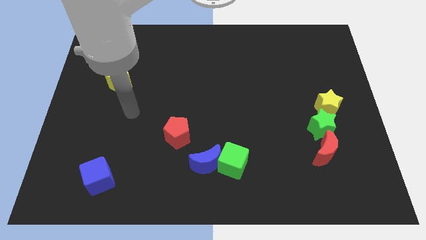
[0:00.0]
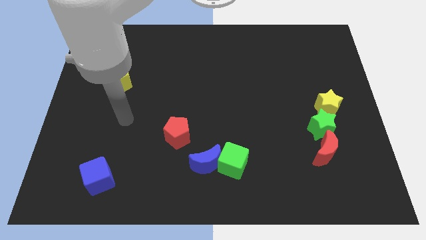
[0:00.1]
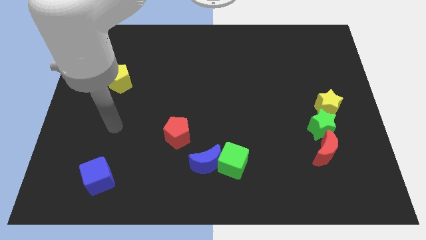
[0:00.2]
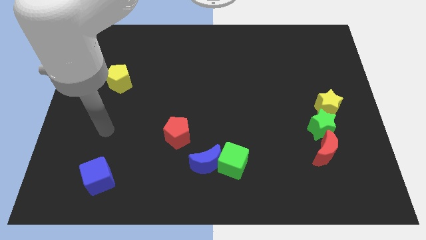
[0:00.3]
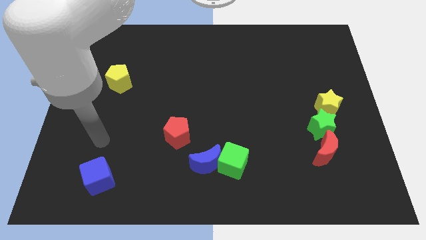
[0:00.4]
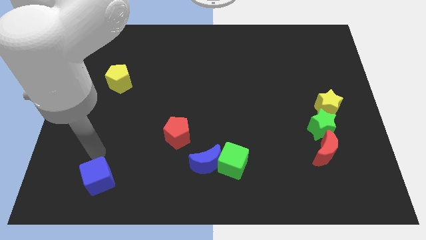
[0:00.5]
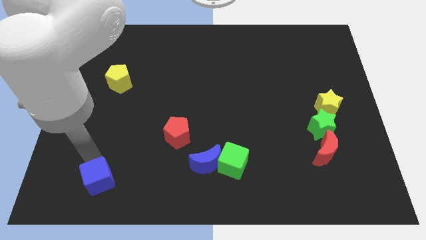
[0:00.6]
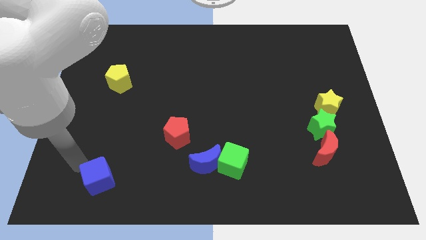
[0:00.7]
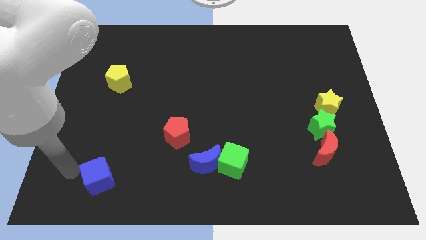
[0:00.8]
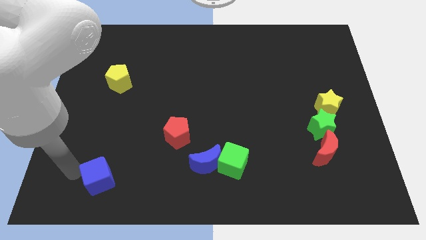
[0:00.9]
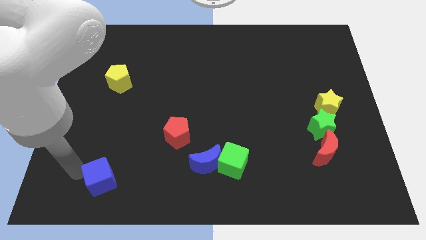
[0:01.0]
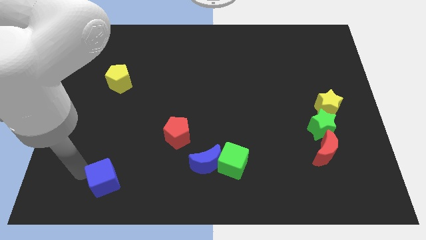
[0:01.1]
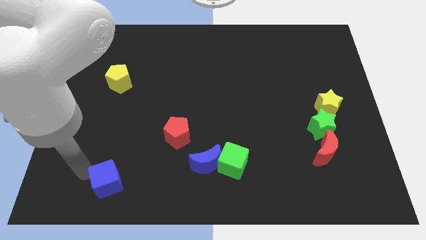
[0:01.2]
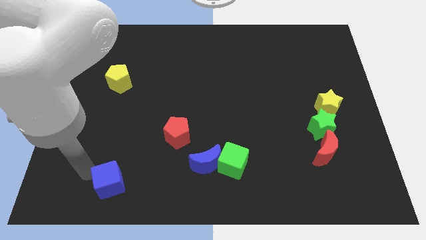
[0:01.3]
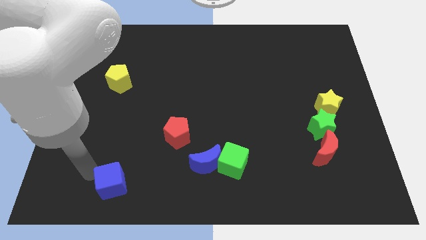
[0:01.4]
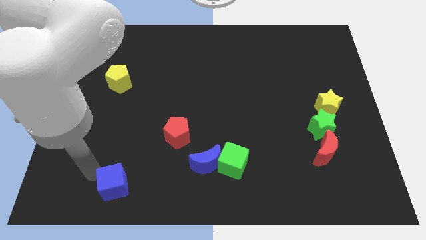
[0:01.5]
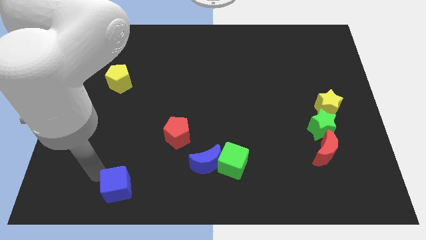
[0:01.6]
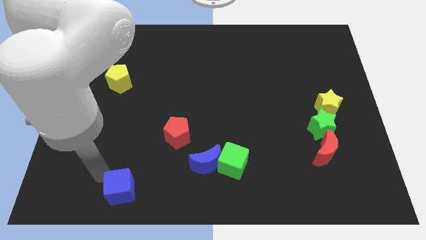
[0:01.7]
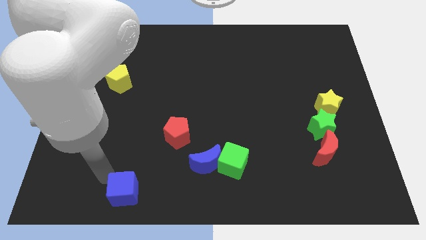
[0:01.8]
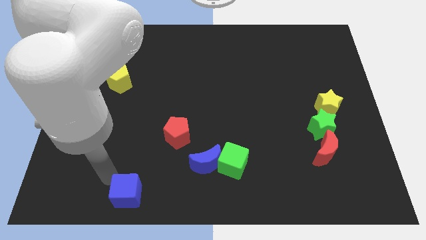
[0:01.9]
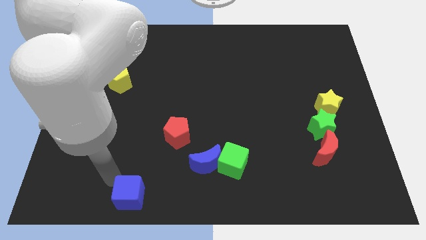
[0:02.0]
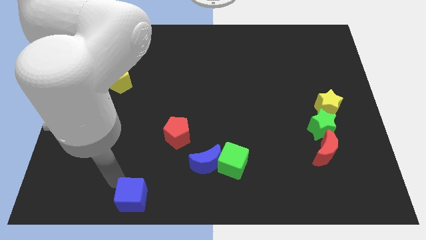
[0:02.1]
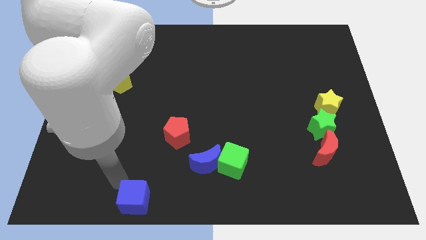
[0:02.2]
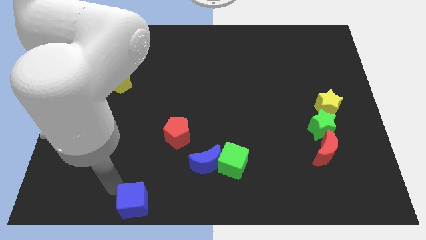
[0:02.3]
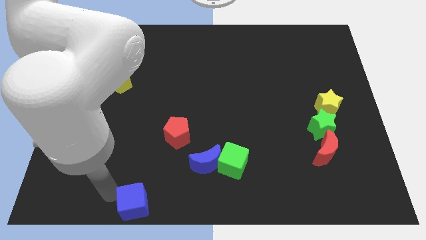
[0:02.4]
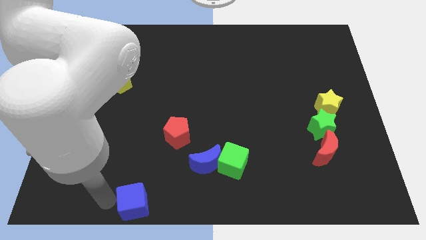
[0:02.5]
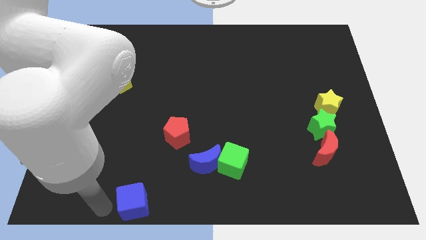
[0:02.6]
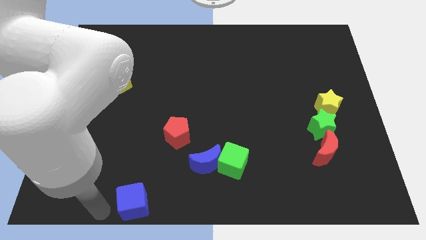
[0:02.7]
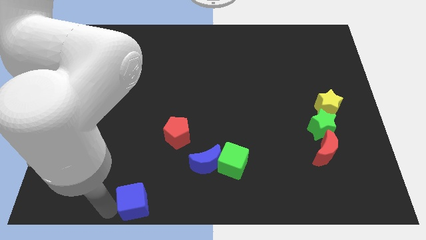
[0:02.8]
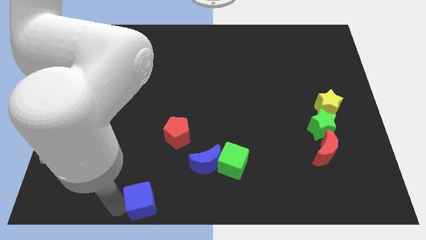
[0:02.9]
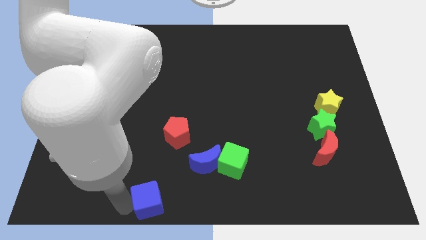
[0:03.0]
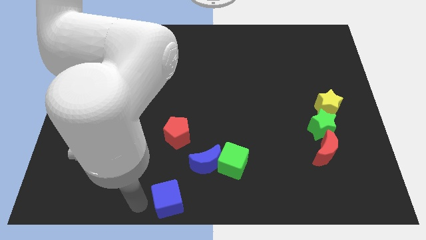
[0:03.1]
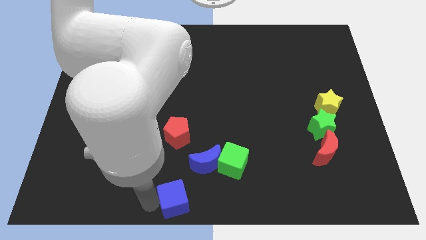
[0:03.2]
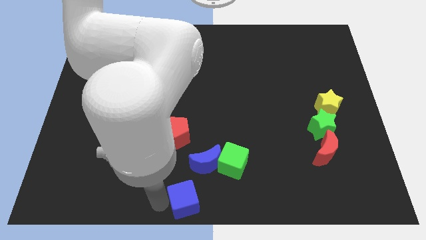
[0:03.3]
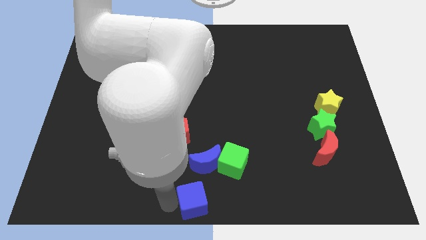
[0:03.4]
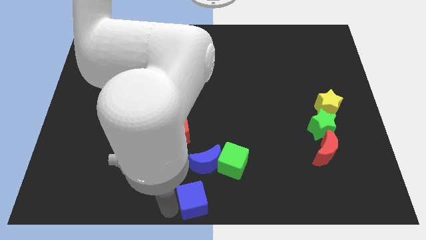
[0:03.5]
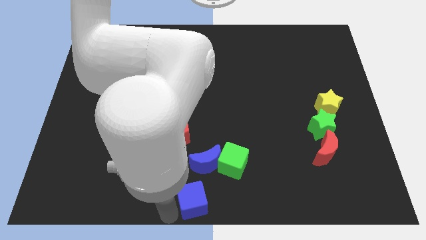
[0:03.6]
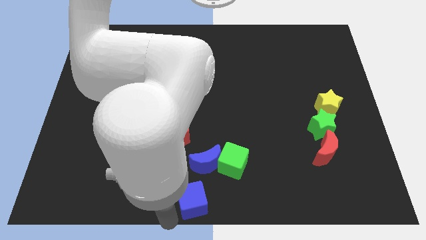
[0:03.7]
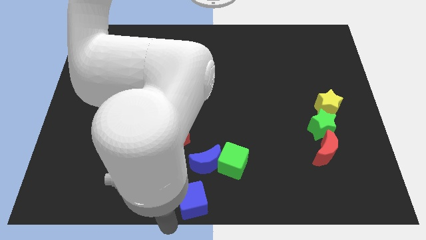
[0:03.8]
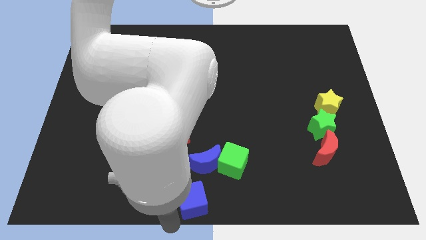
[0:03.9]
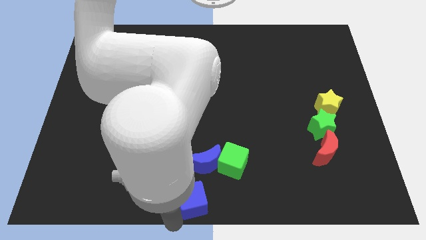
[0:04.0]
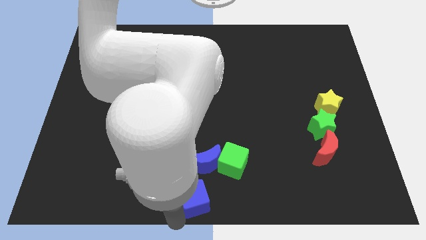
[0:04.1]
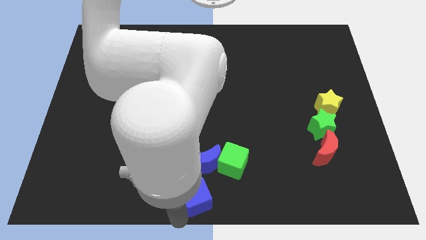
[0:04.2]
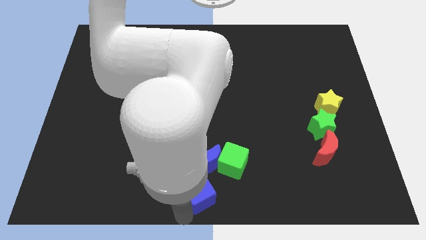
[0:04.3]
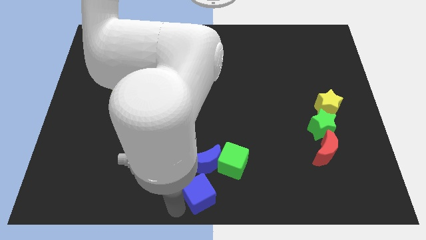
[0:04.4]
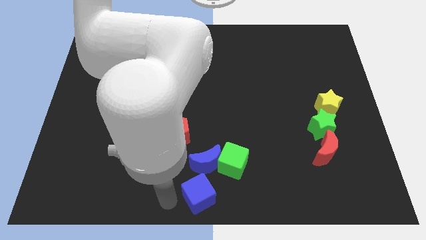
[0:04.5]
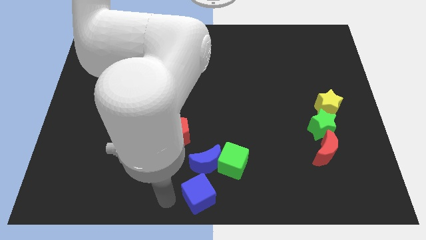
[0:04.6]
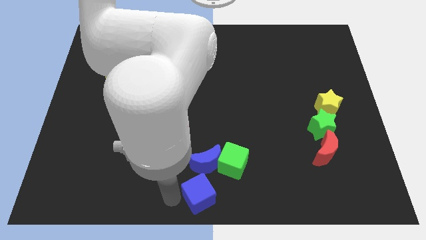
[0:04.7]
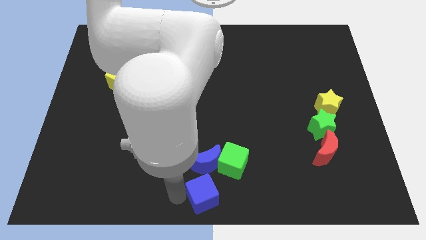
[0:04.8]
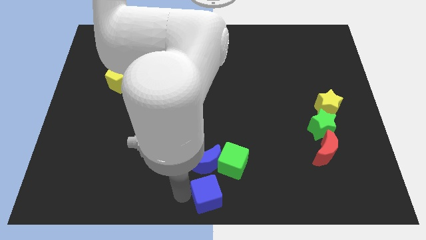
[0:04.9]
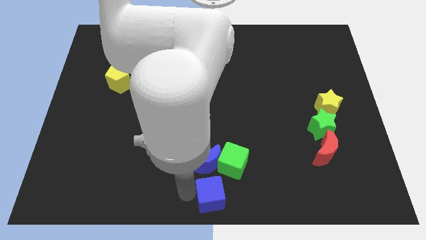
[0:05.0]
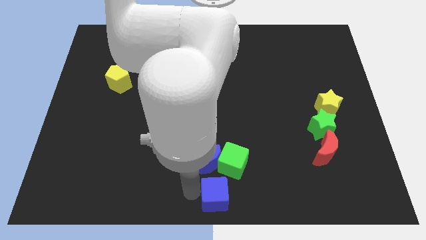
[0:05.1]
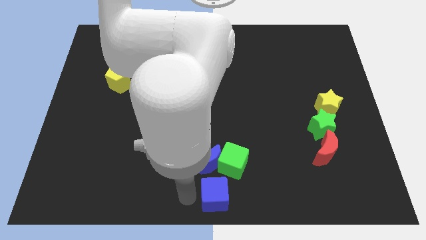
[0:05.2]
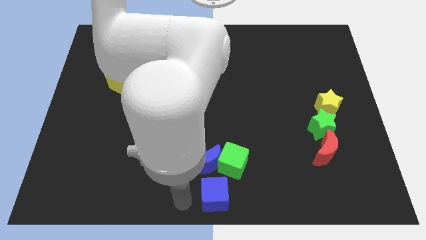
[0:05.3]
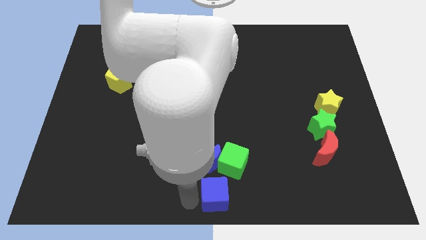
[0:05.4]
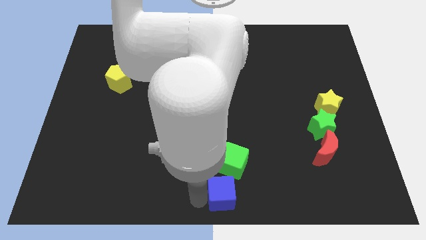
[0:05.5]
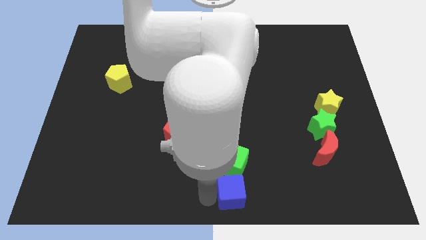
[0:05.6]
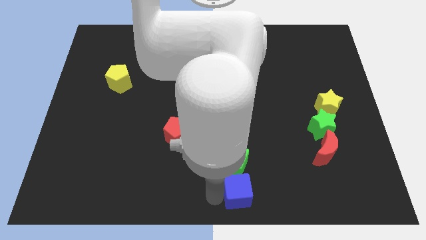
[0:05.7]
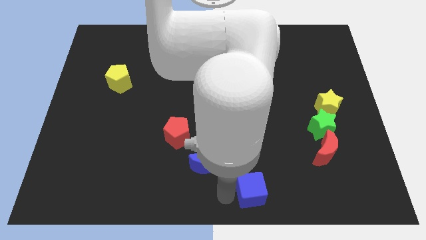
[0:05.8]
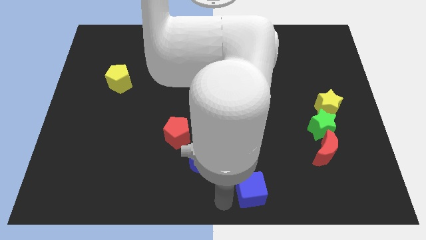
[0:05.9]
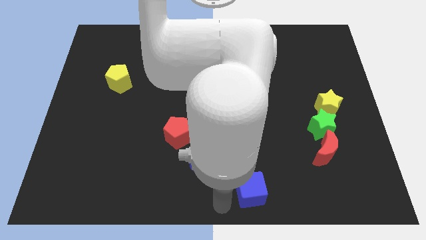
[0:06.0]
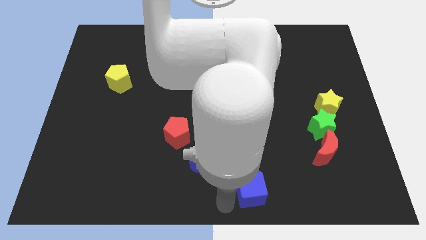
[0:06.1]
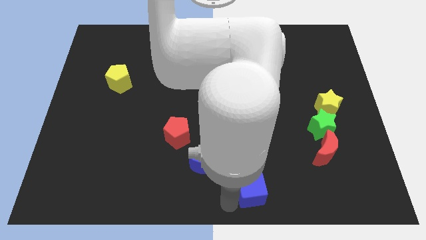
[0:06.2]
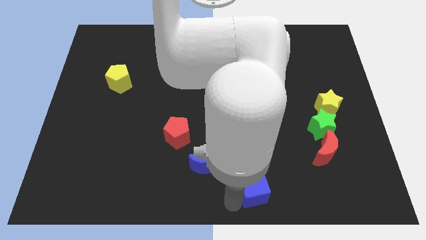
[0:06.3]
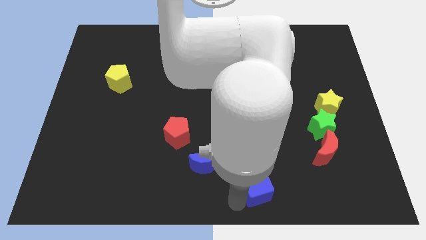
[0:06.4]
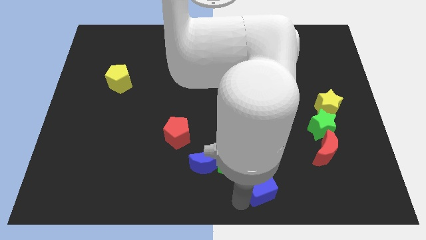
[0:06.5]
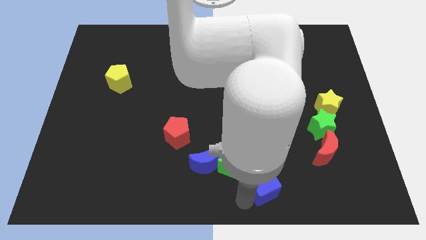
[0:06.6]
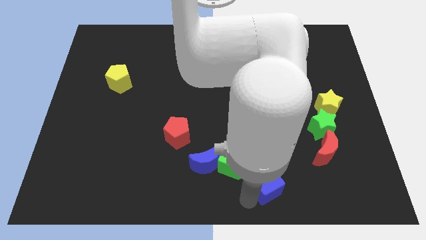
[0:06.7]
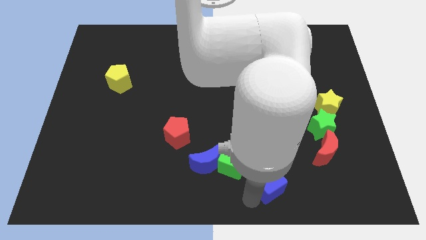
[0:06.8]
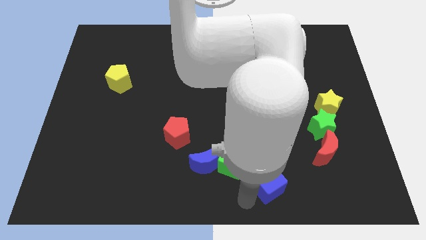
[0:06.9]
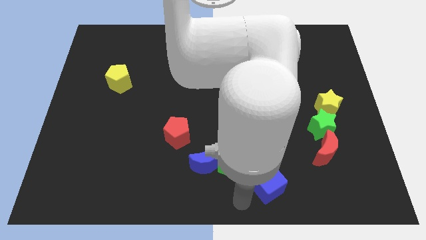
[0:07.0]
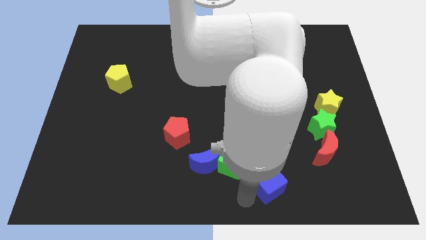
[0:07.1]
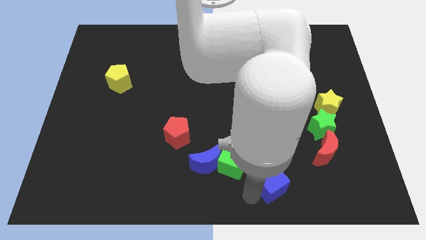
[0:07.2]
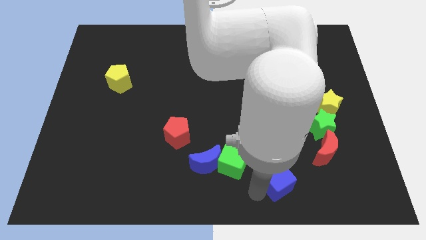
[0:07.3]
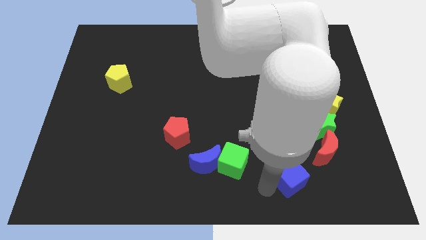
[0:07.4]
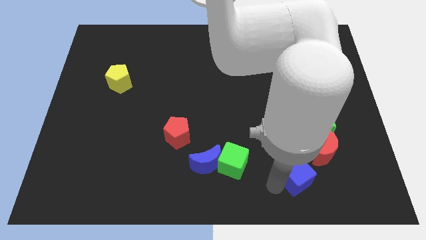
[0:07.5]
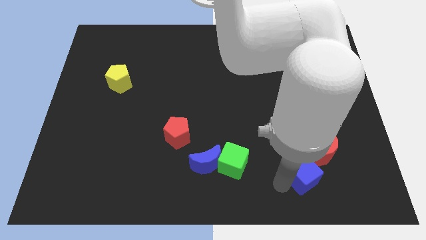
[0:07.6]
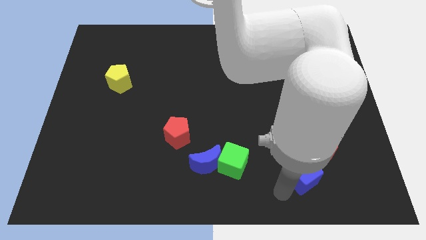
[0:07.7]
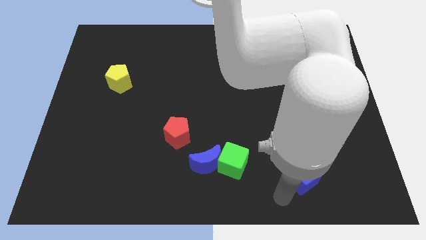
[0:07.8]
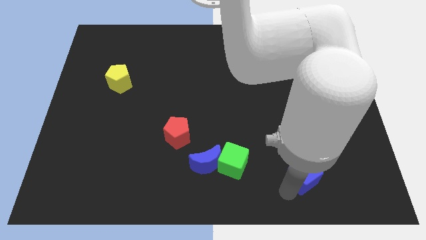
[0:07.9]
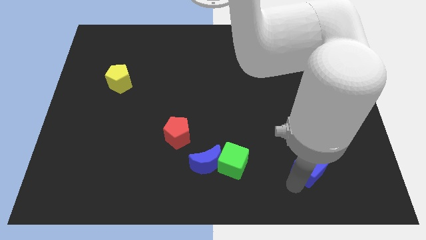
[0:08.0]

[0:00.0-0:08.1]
move the blue cube towards the red moon

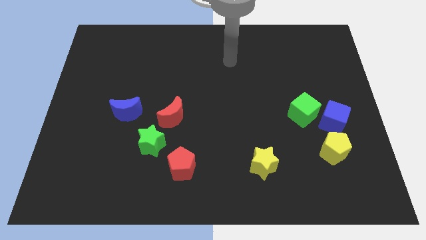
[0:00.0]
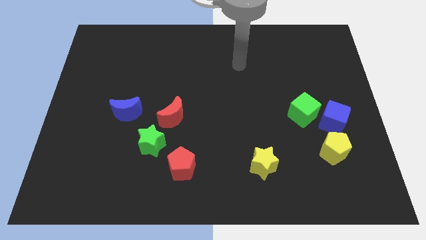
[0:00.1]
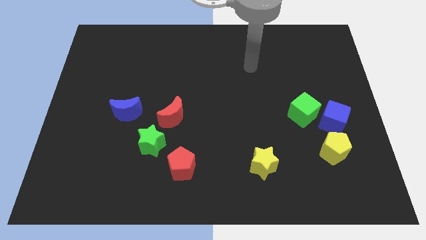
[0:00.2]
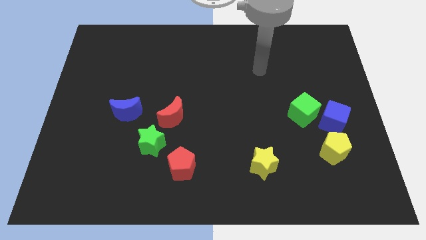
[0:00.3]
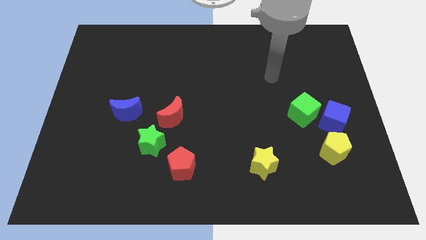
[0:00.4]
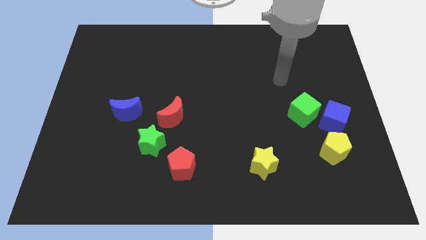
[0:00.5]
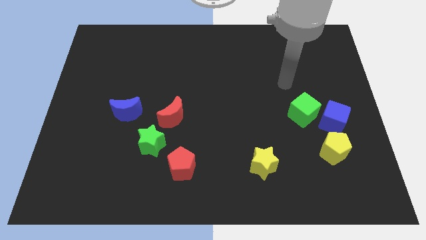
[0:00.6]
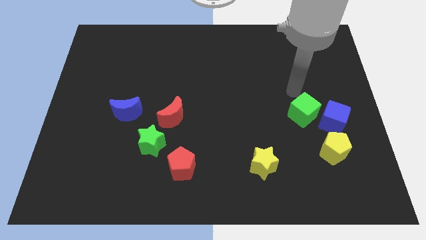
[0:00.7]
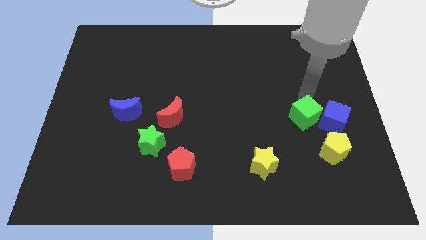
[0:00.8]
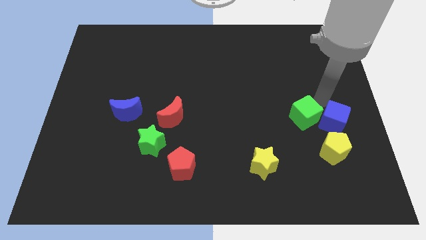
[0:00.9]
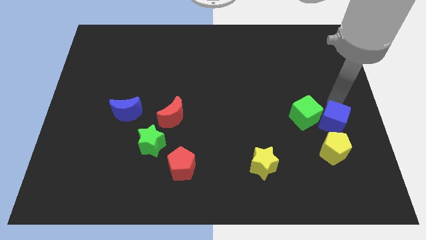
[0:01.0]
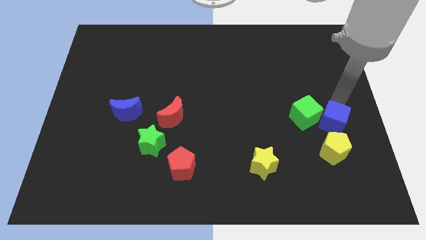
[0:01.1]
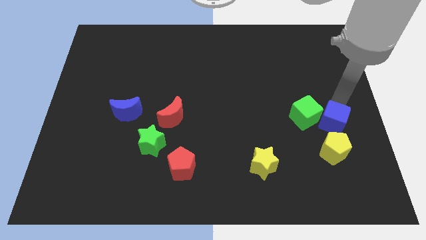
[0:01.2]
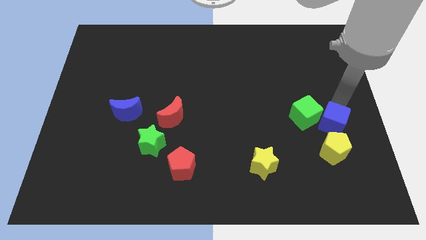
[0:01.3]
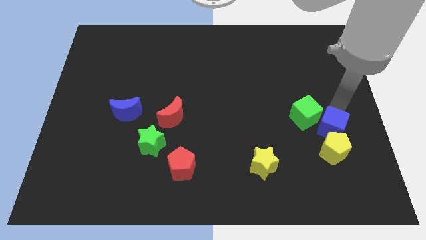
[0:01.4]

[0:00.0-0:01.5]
push the blue cube towards the yellow pentagon
